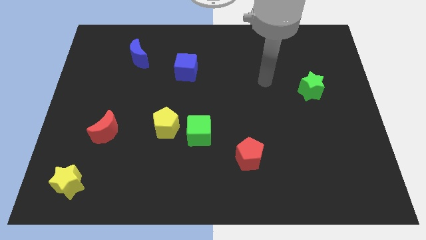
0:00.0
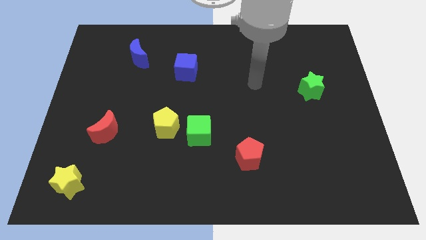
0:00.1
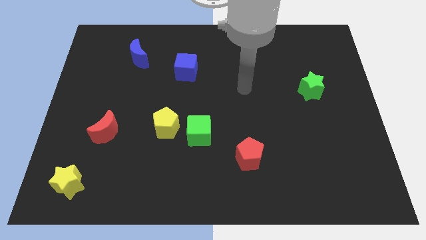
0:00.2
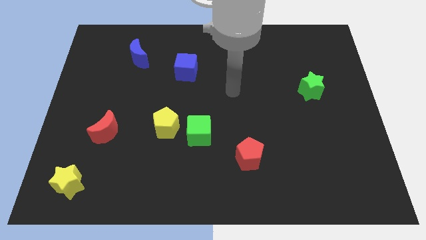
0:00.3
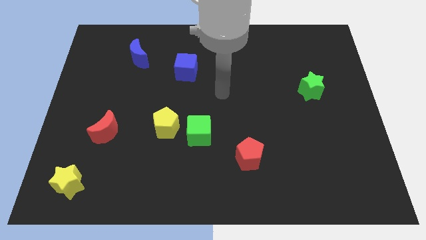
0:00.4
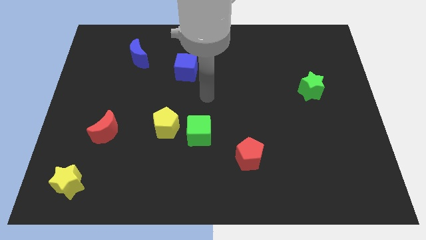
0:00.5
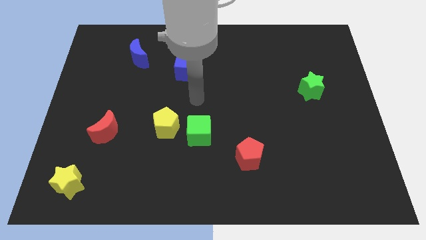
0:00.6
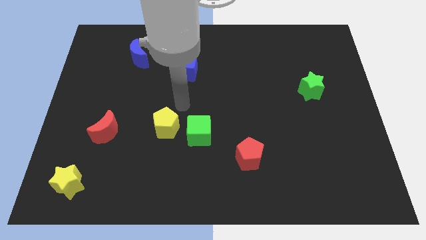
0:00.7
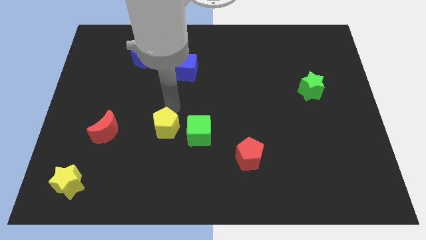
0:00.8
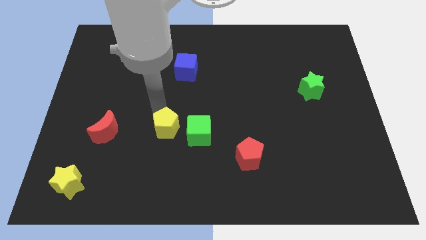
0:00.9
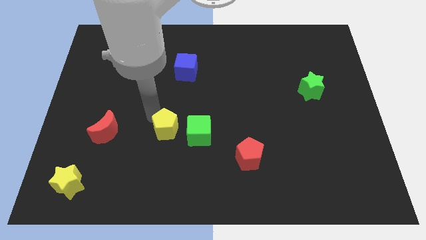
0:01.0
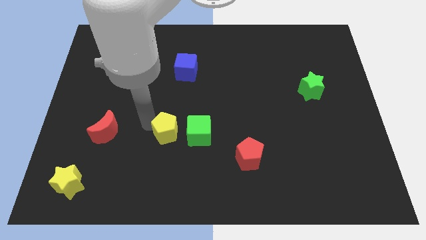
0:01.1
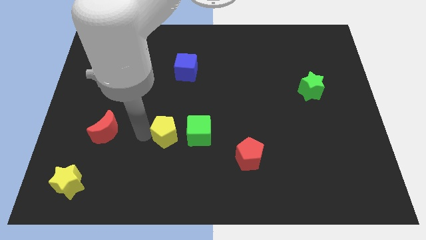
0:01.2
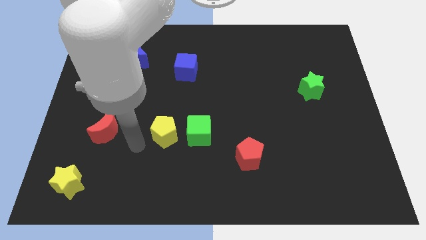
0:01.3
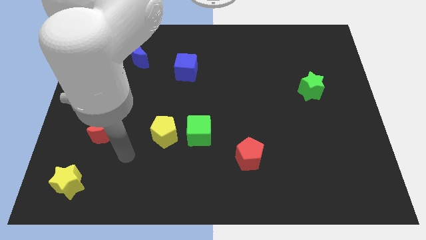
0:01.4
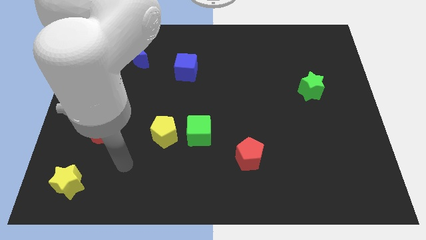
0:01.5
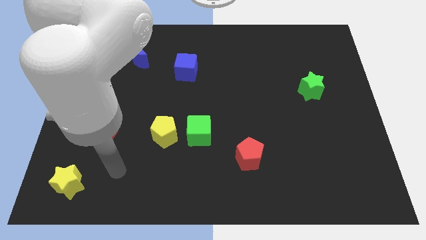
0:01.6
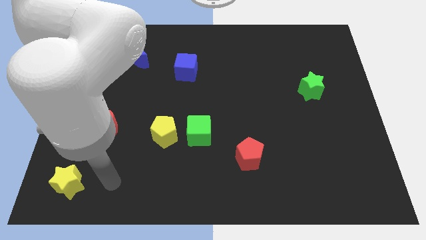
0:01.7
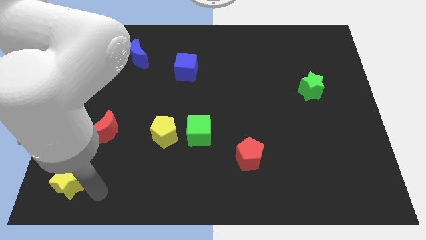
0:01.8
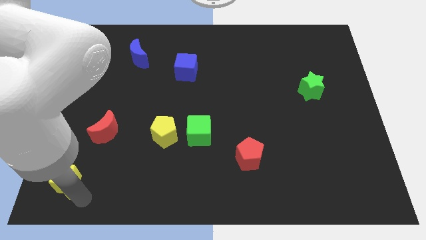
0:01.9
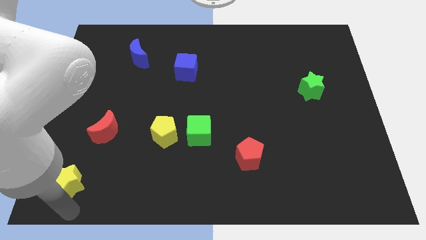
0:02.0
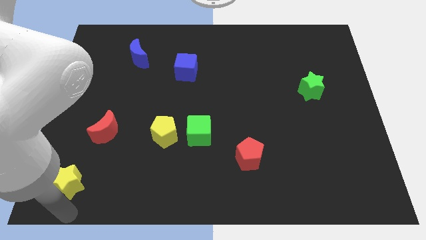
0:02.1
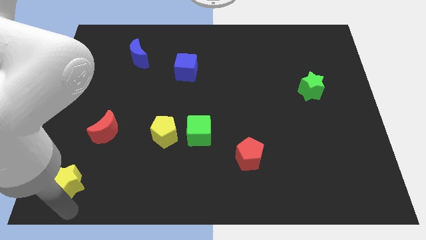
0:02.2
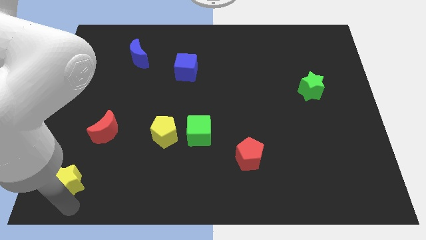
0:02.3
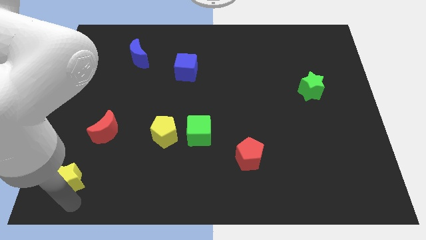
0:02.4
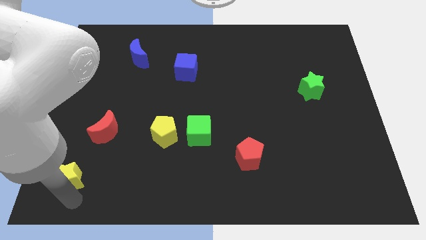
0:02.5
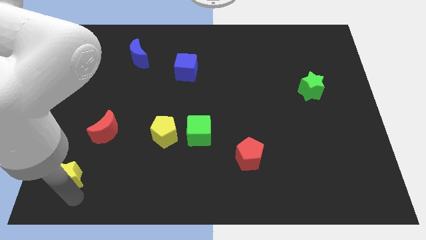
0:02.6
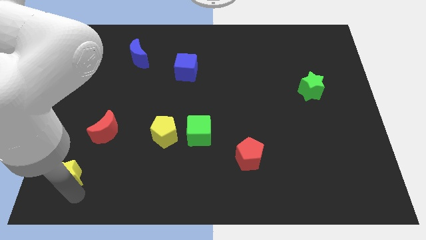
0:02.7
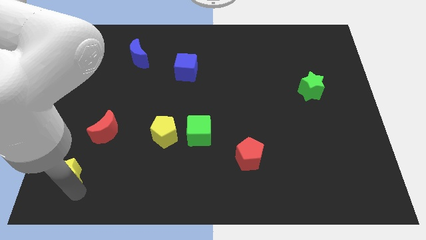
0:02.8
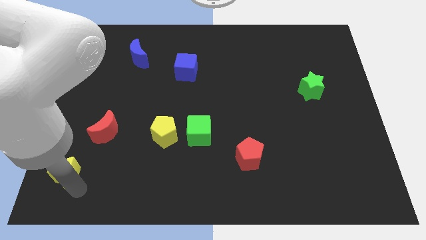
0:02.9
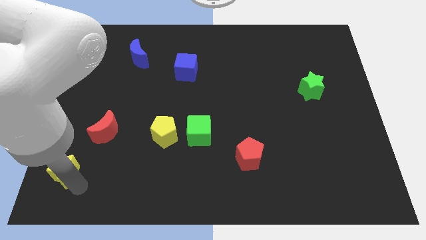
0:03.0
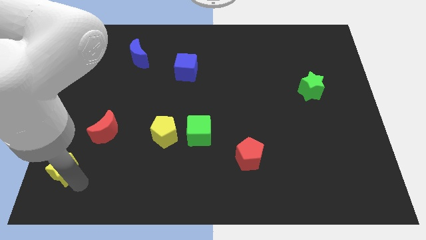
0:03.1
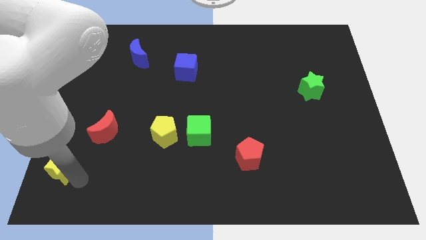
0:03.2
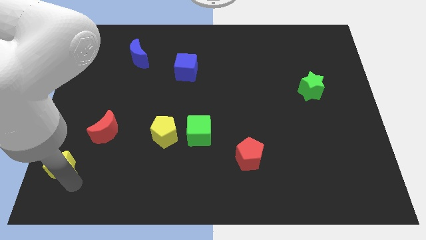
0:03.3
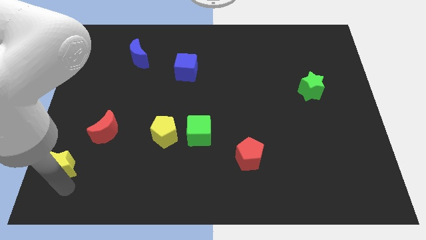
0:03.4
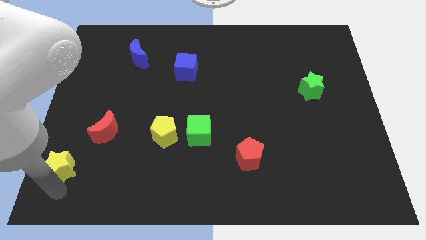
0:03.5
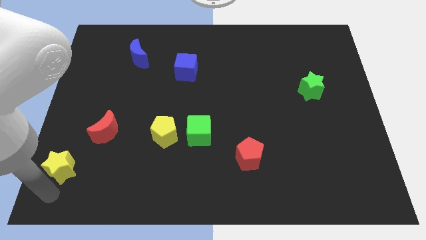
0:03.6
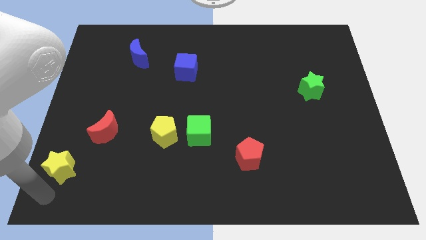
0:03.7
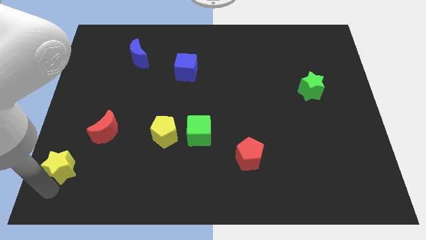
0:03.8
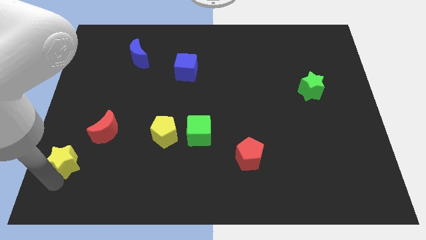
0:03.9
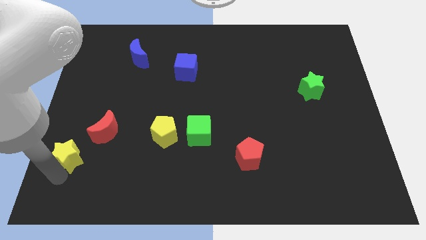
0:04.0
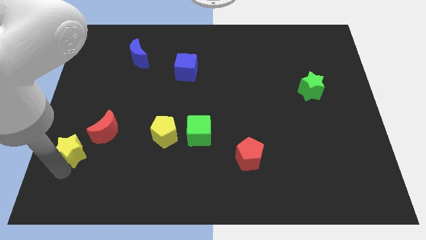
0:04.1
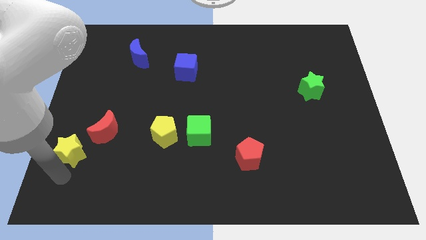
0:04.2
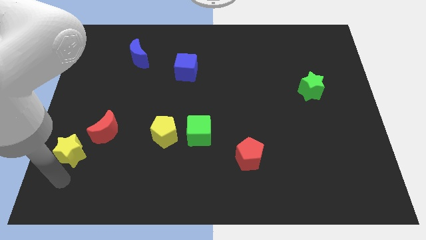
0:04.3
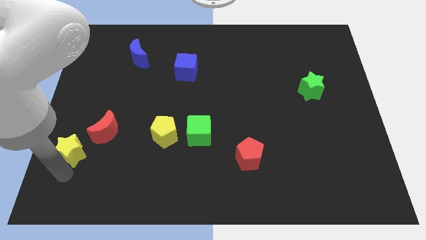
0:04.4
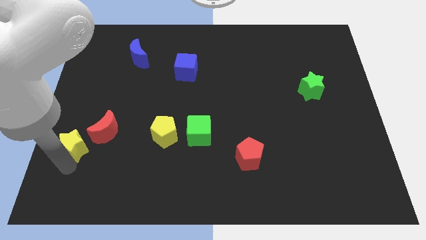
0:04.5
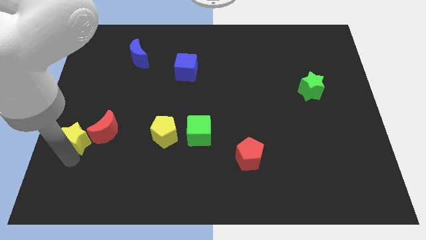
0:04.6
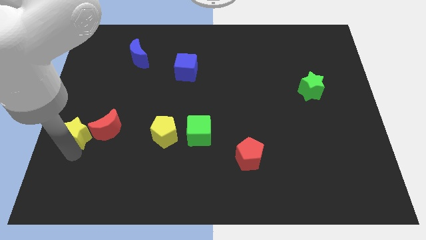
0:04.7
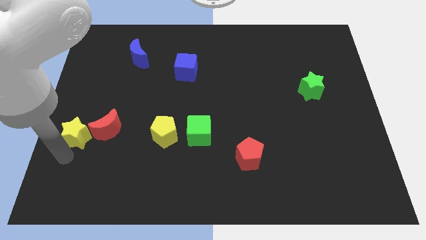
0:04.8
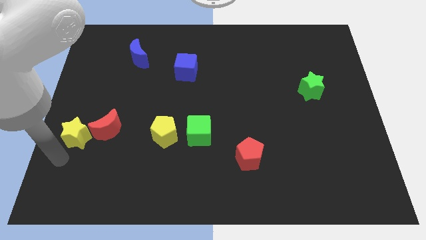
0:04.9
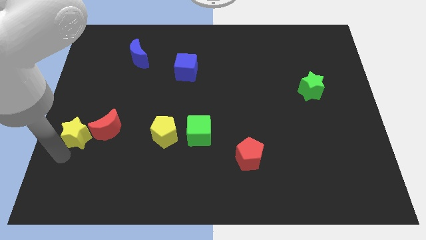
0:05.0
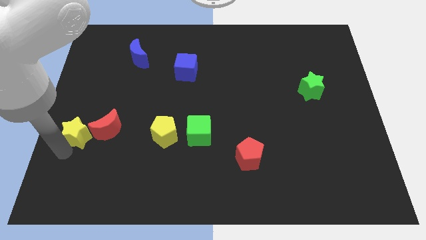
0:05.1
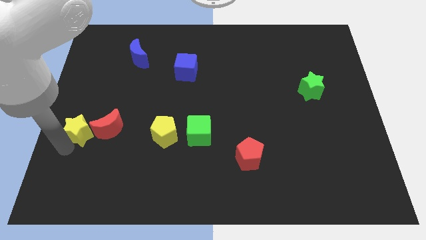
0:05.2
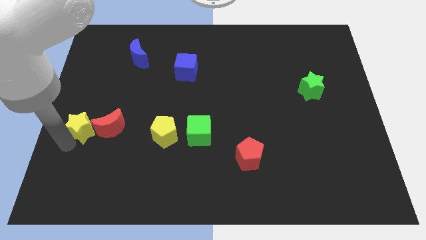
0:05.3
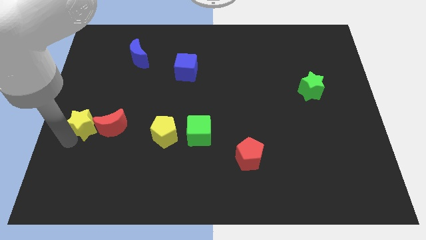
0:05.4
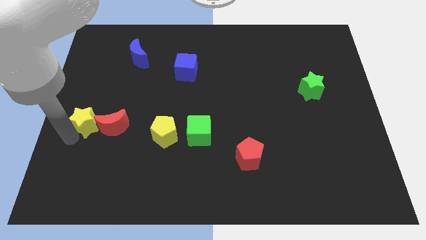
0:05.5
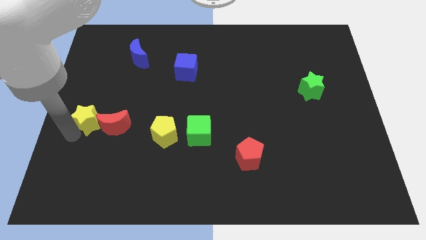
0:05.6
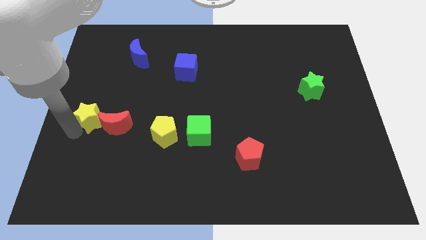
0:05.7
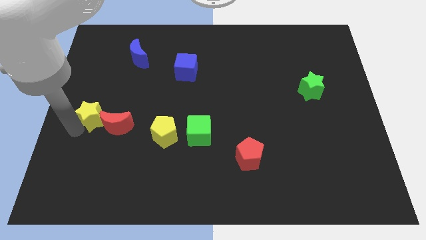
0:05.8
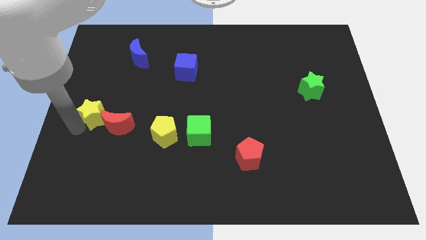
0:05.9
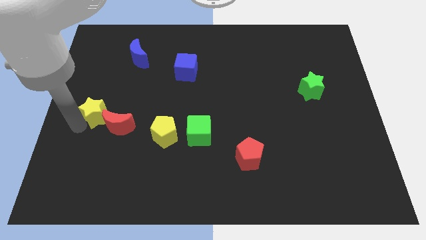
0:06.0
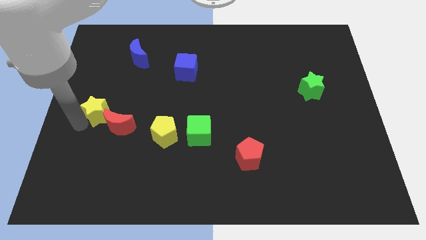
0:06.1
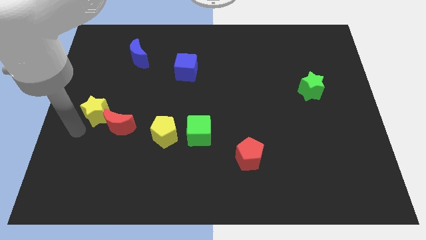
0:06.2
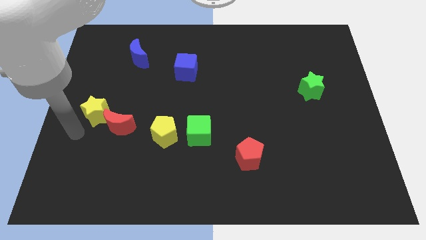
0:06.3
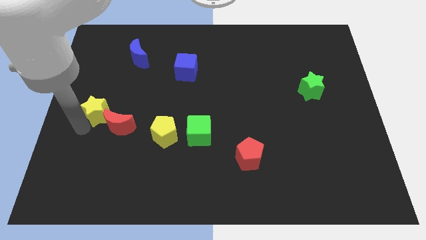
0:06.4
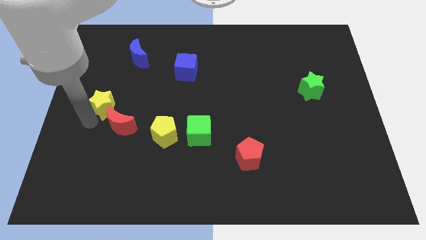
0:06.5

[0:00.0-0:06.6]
slide the yellow star to the top of the red moon
